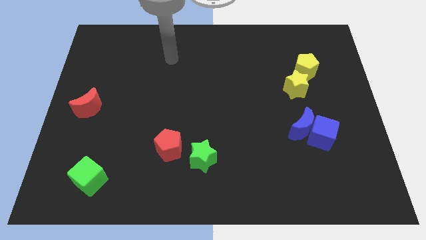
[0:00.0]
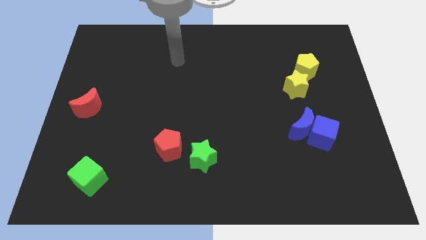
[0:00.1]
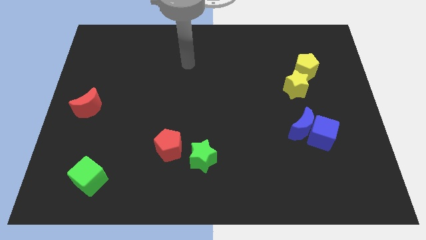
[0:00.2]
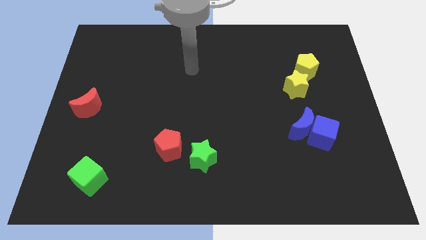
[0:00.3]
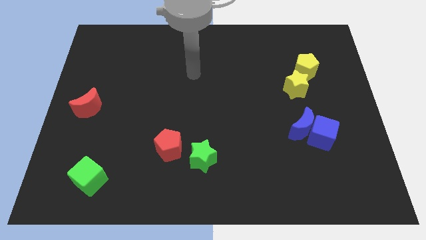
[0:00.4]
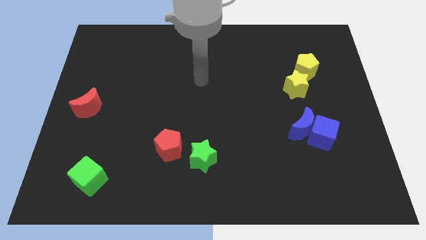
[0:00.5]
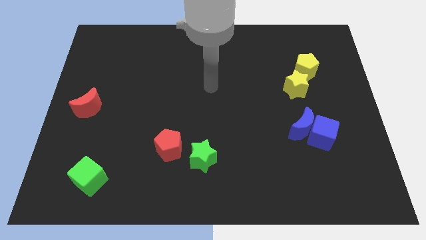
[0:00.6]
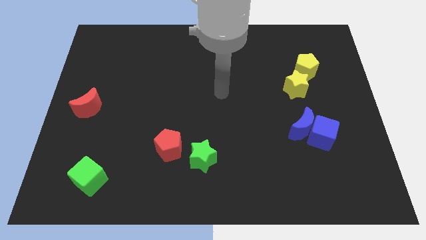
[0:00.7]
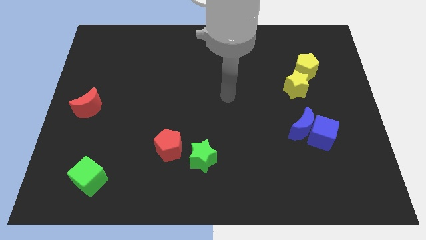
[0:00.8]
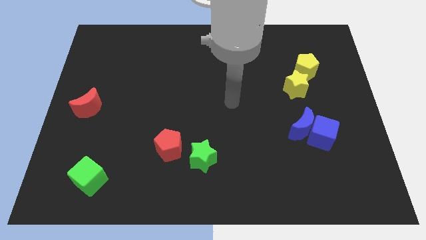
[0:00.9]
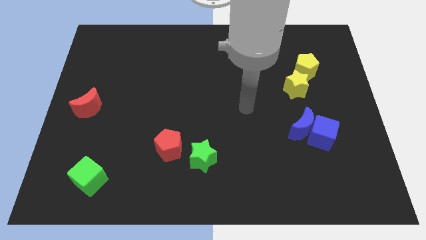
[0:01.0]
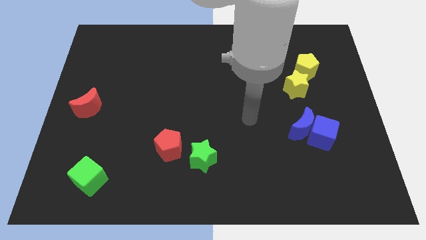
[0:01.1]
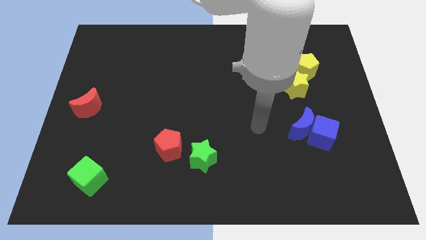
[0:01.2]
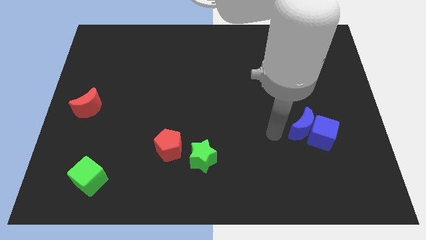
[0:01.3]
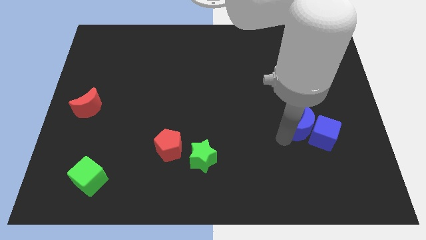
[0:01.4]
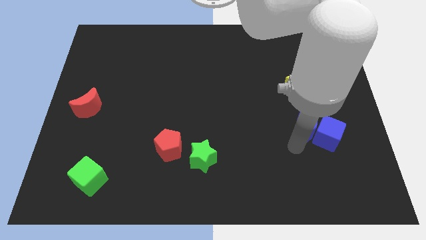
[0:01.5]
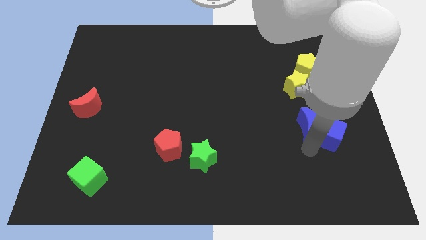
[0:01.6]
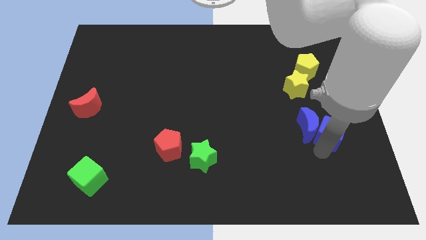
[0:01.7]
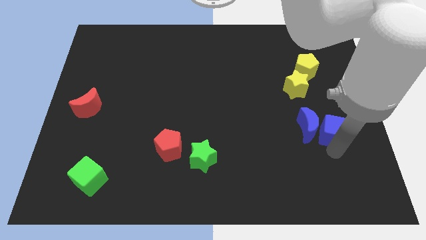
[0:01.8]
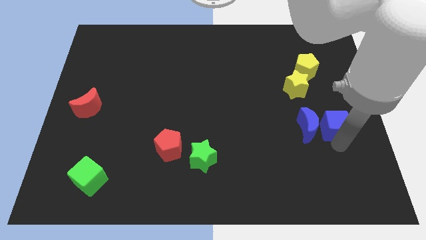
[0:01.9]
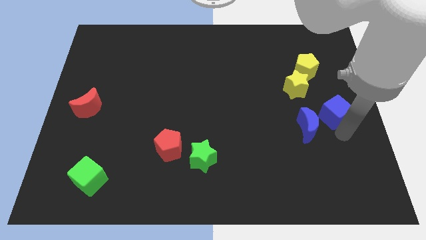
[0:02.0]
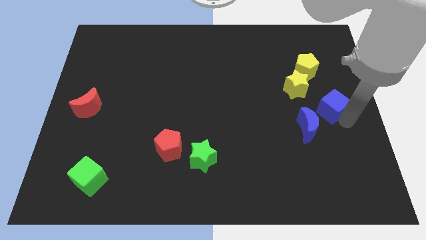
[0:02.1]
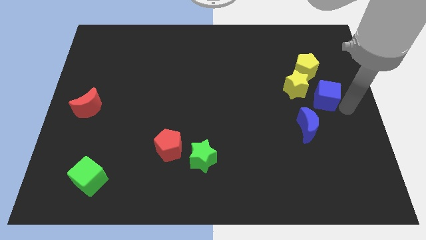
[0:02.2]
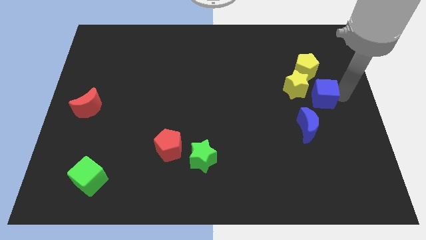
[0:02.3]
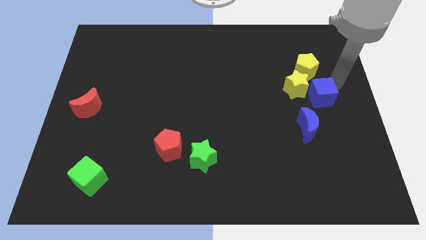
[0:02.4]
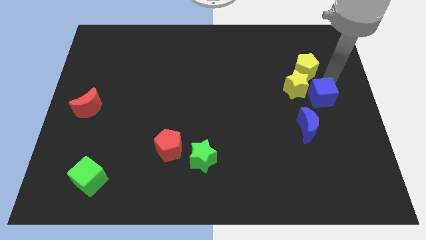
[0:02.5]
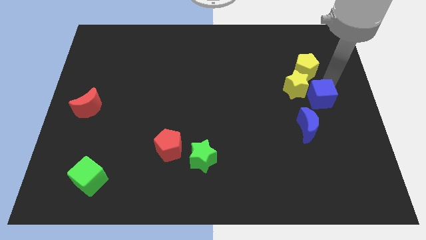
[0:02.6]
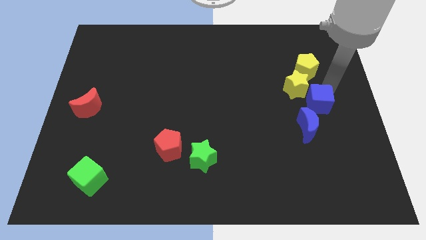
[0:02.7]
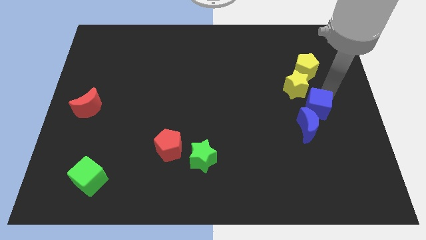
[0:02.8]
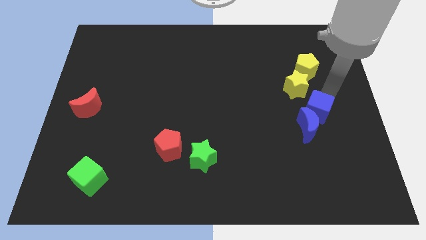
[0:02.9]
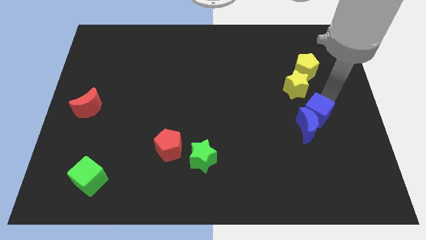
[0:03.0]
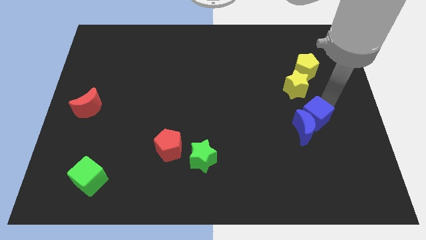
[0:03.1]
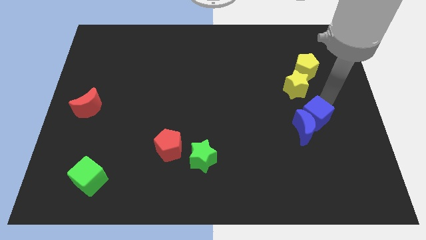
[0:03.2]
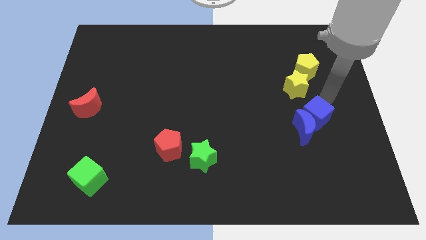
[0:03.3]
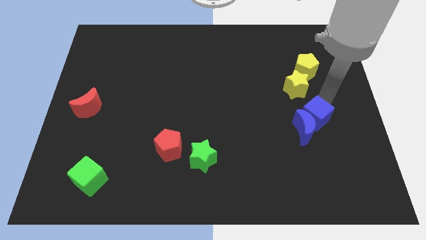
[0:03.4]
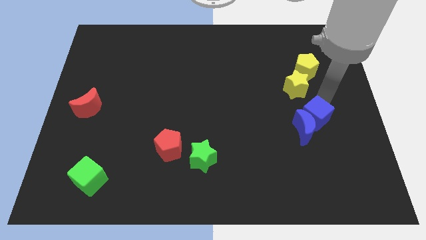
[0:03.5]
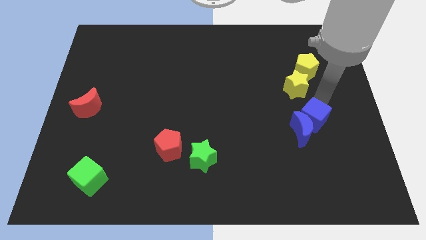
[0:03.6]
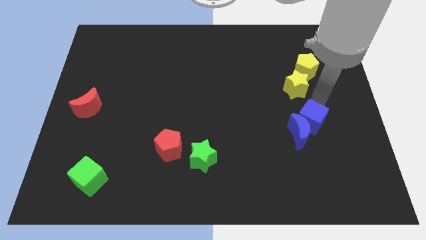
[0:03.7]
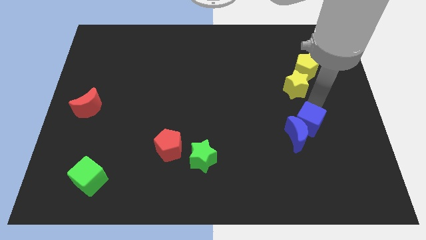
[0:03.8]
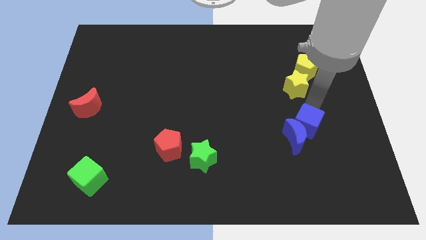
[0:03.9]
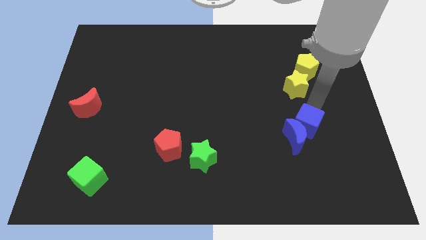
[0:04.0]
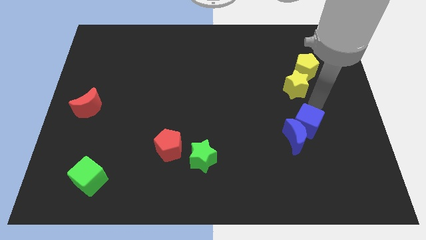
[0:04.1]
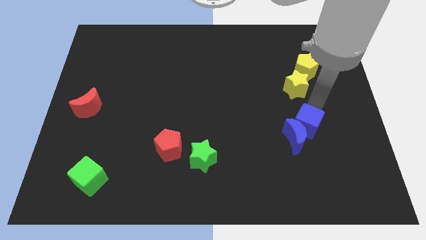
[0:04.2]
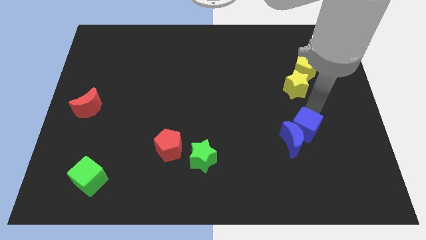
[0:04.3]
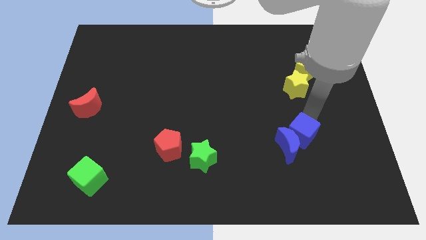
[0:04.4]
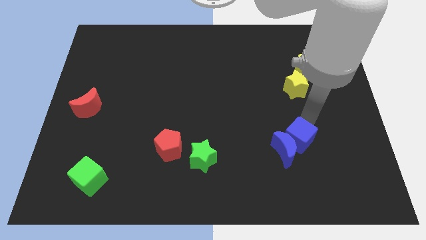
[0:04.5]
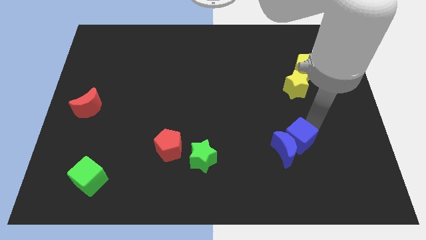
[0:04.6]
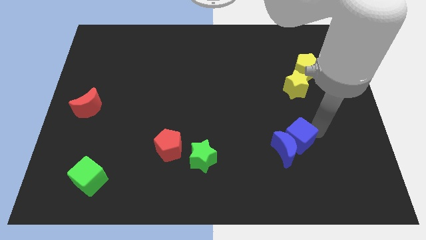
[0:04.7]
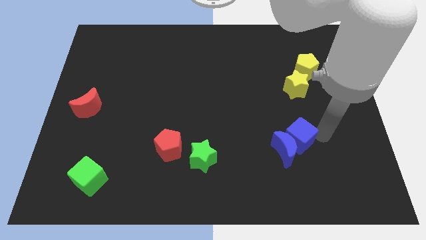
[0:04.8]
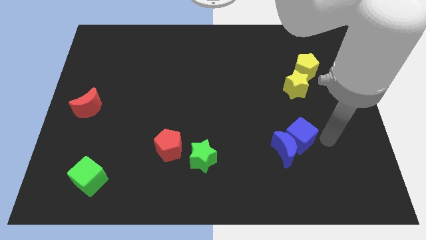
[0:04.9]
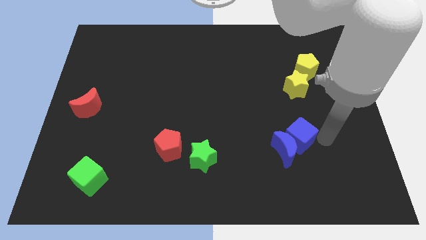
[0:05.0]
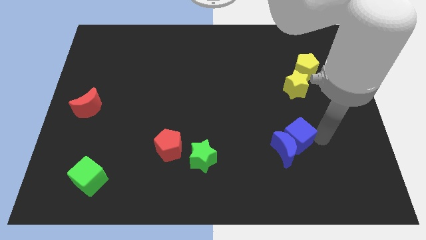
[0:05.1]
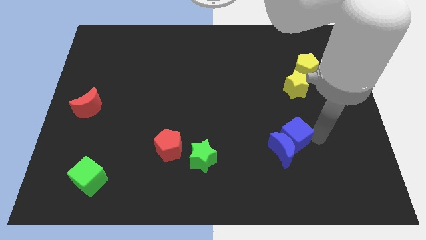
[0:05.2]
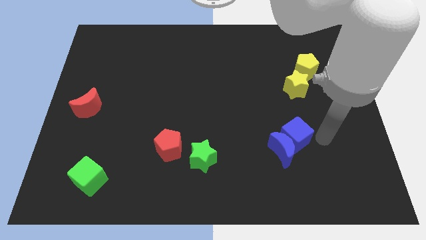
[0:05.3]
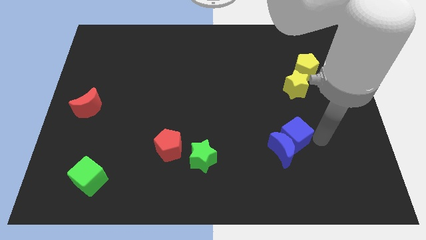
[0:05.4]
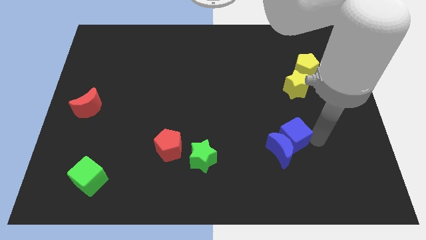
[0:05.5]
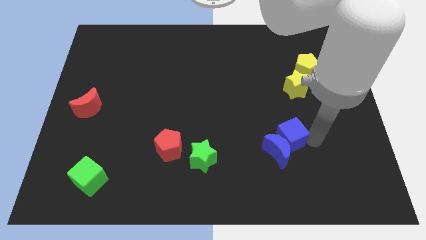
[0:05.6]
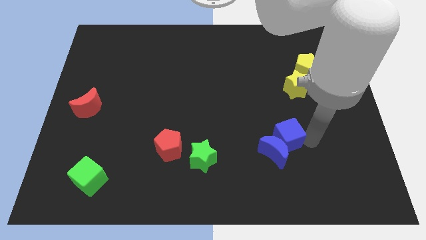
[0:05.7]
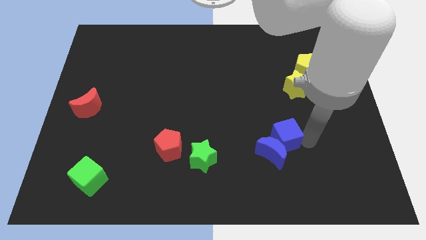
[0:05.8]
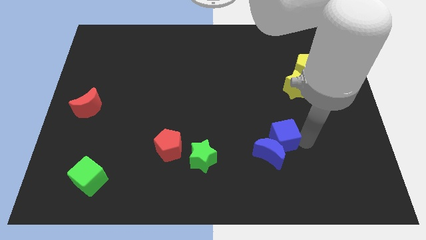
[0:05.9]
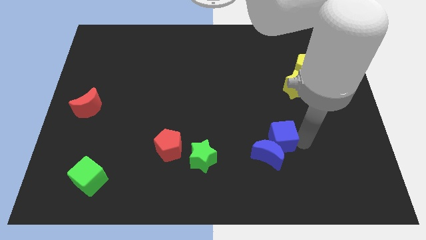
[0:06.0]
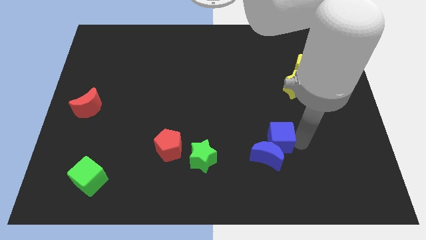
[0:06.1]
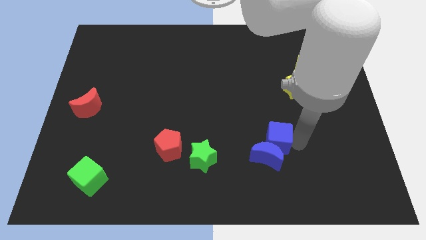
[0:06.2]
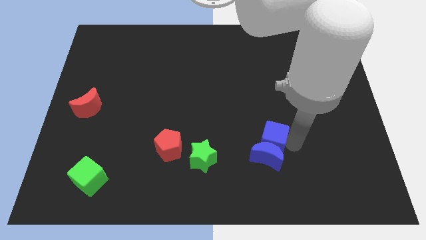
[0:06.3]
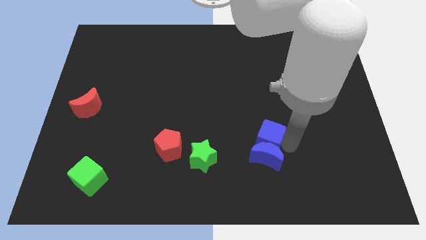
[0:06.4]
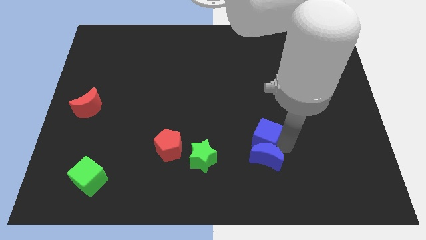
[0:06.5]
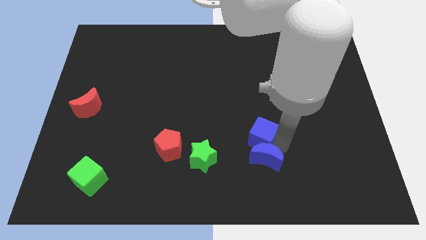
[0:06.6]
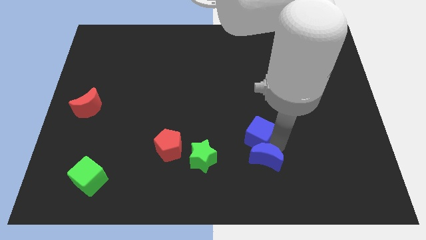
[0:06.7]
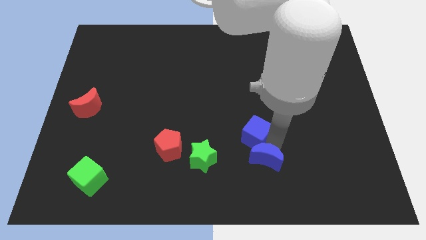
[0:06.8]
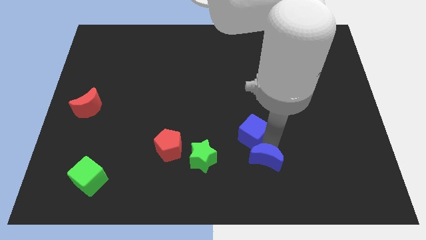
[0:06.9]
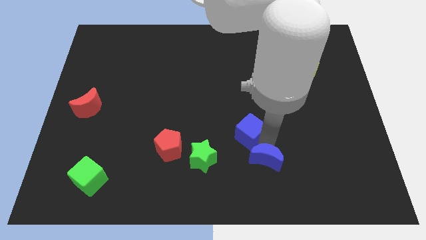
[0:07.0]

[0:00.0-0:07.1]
put the blue cube to the center of the board
